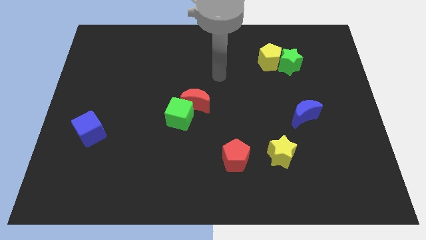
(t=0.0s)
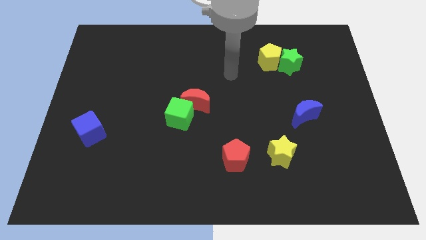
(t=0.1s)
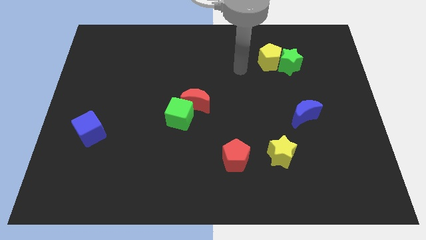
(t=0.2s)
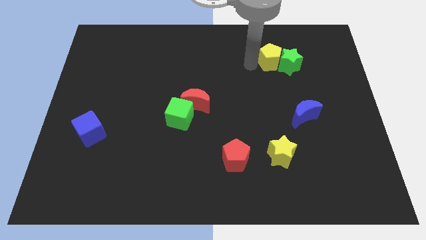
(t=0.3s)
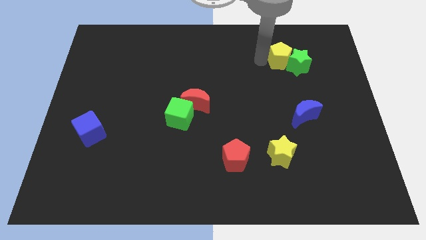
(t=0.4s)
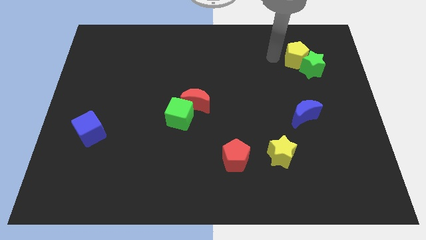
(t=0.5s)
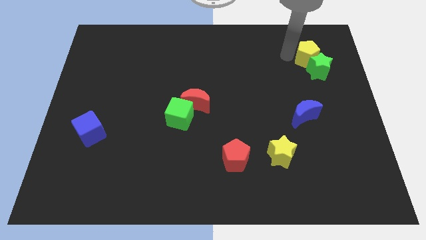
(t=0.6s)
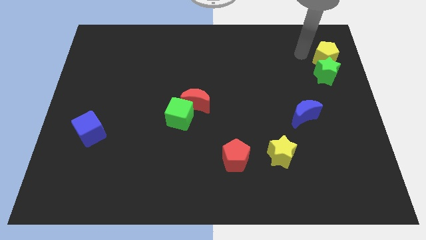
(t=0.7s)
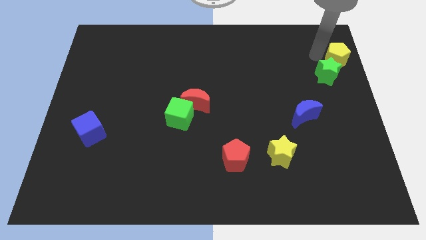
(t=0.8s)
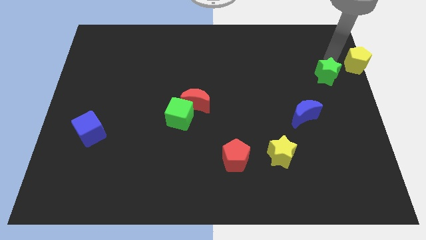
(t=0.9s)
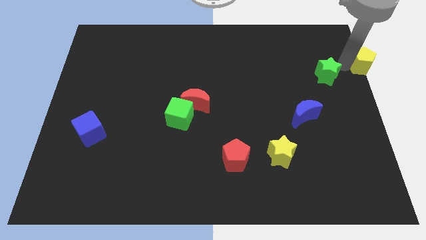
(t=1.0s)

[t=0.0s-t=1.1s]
pull the green star apart from the yellow pentagon

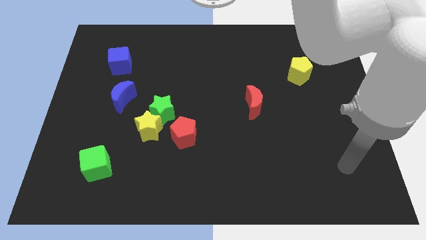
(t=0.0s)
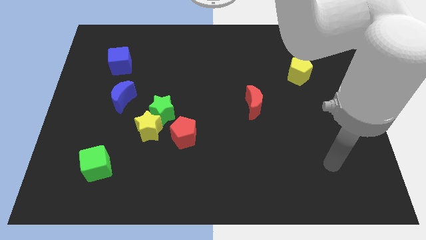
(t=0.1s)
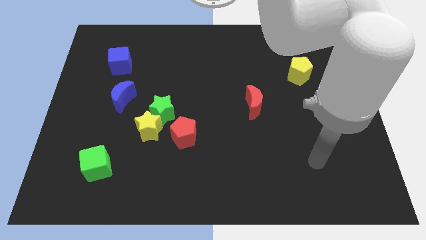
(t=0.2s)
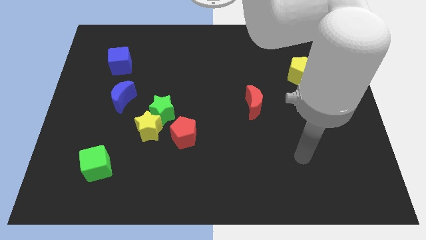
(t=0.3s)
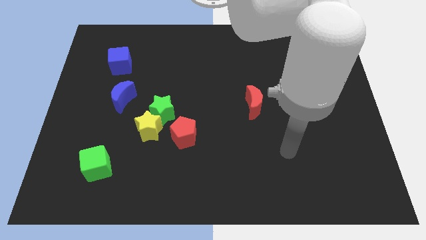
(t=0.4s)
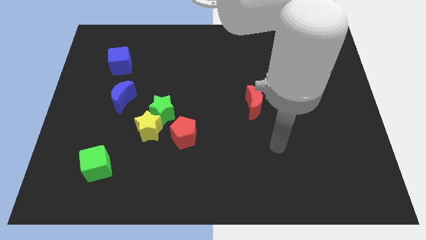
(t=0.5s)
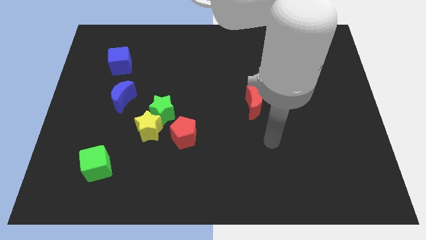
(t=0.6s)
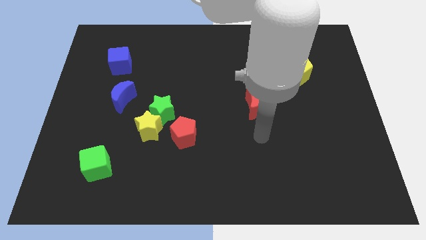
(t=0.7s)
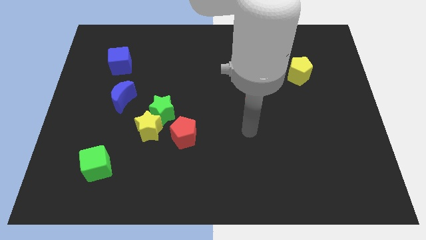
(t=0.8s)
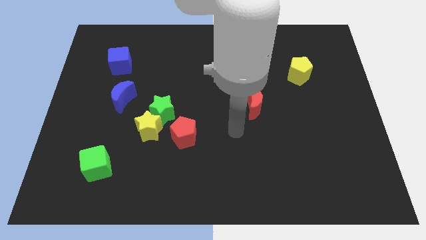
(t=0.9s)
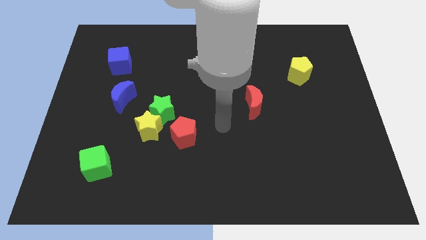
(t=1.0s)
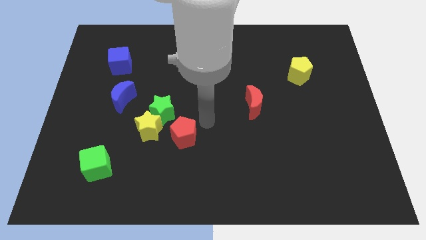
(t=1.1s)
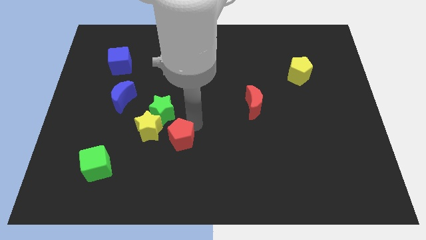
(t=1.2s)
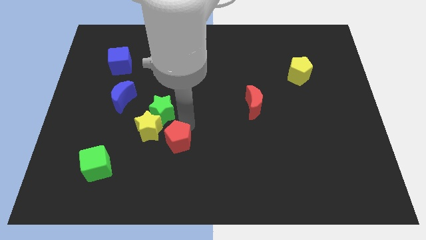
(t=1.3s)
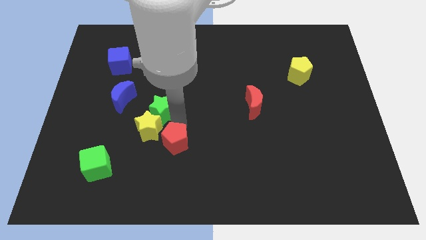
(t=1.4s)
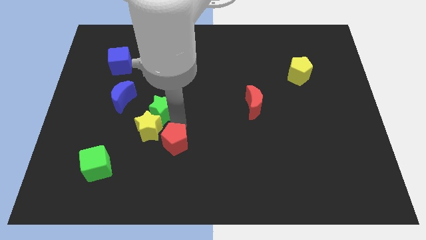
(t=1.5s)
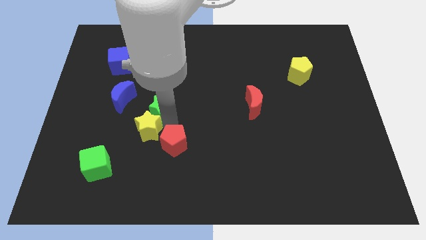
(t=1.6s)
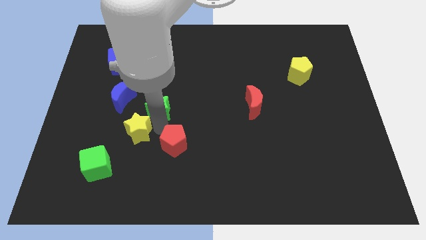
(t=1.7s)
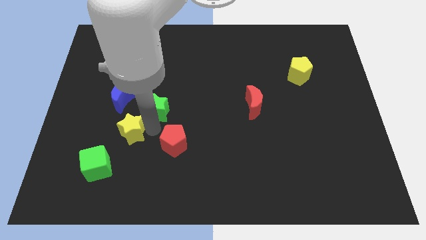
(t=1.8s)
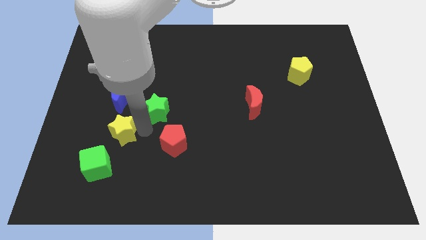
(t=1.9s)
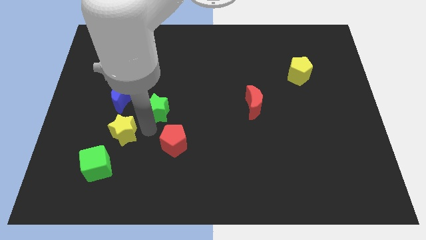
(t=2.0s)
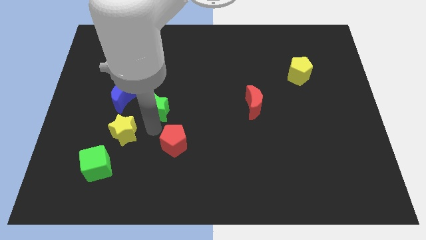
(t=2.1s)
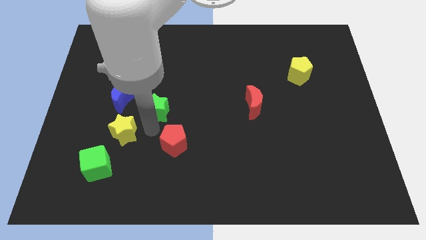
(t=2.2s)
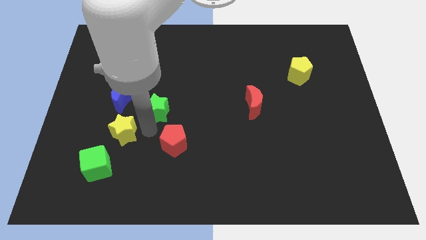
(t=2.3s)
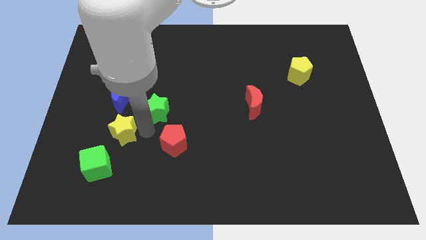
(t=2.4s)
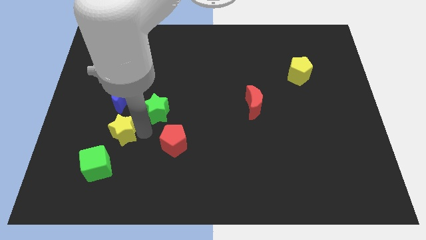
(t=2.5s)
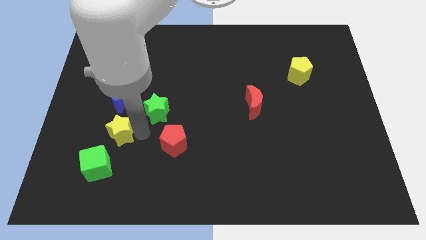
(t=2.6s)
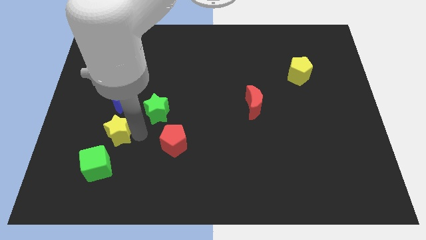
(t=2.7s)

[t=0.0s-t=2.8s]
move the yellow star away from the green star and red pentagon

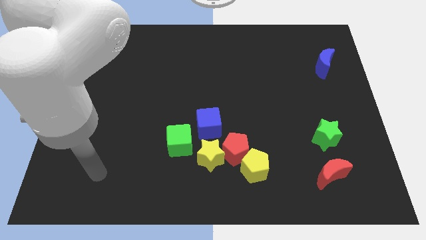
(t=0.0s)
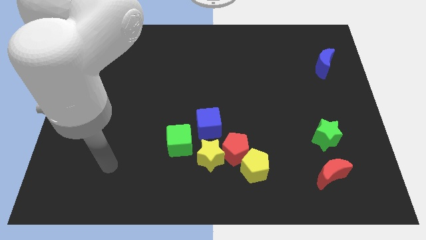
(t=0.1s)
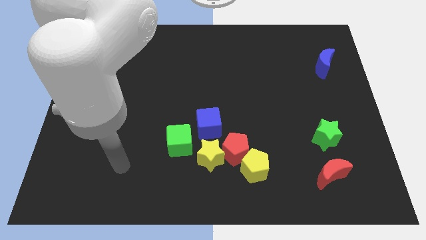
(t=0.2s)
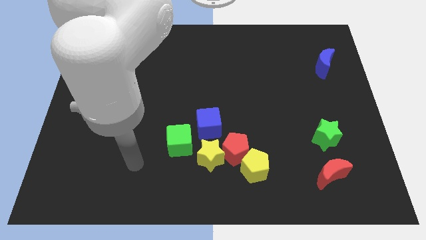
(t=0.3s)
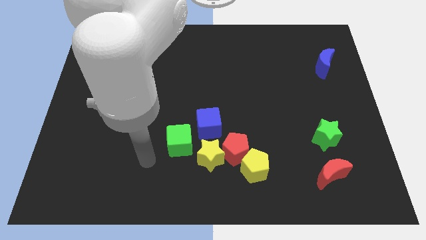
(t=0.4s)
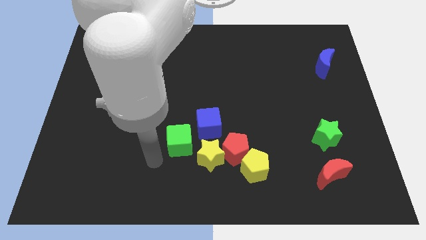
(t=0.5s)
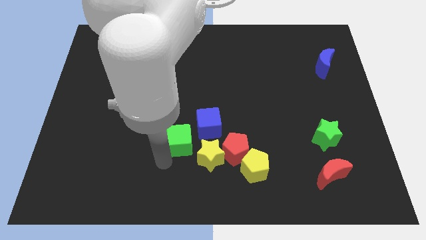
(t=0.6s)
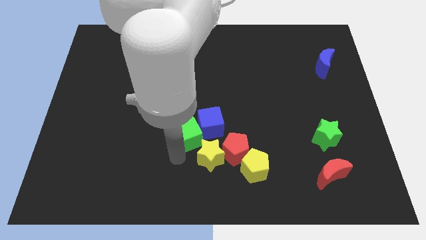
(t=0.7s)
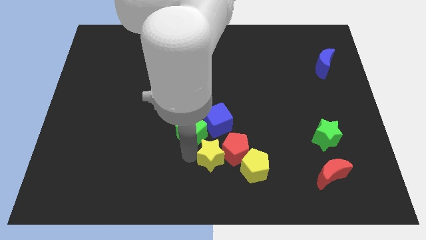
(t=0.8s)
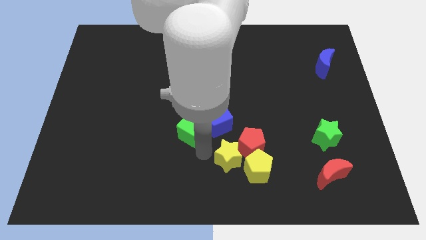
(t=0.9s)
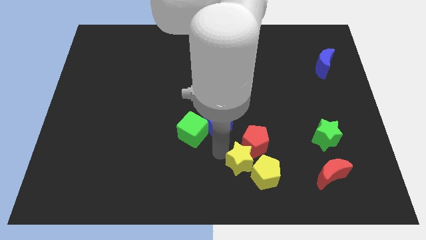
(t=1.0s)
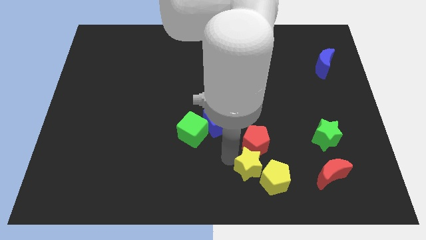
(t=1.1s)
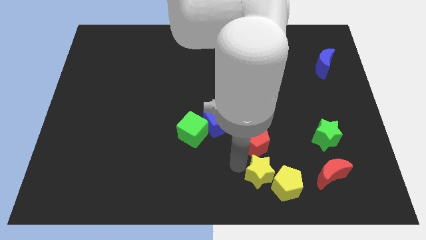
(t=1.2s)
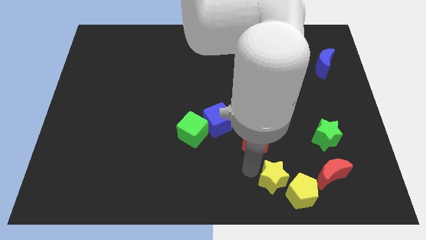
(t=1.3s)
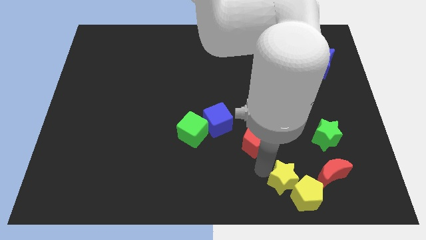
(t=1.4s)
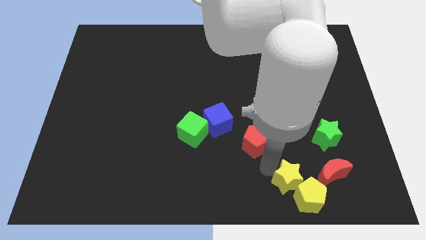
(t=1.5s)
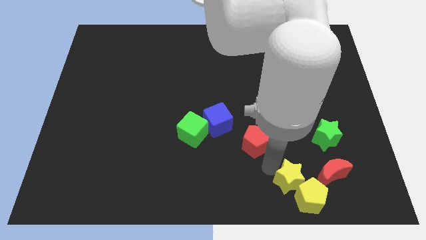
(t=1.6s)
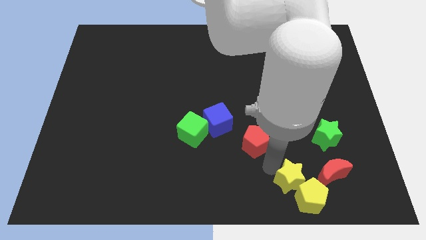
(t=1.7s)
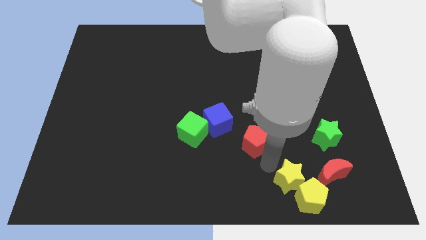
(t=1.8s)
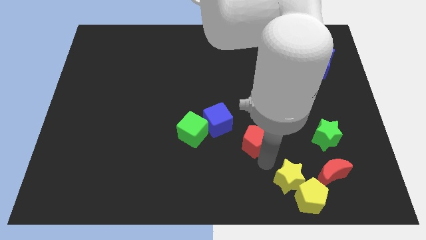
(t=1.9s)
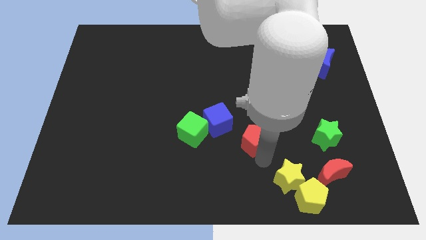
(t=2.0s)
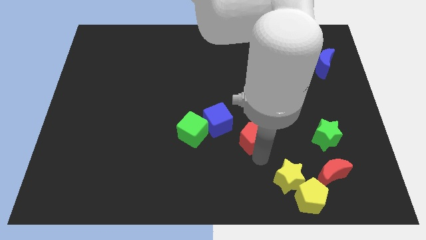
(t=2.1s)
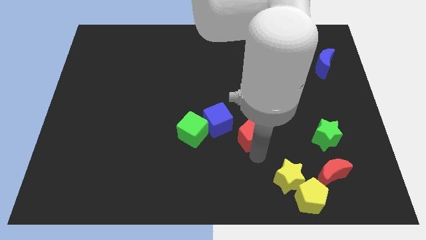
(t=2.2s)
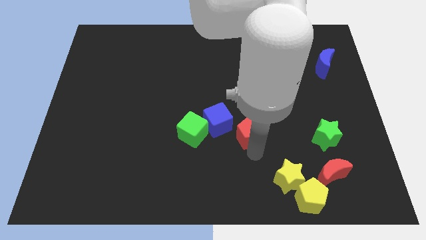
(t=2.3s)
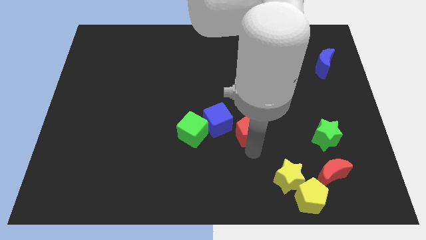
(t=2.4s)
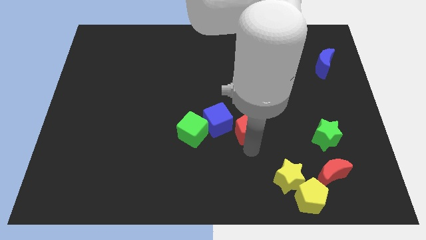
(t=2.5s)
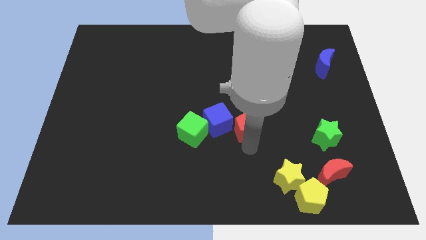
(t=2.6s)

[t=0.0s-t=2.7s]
separate the red pentagon from the yellow star, yellow pentagon, and blue cube

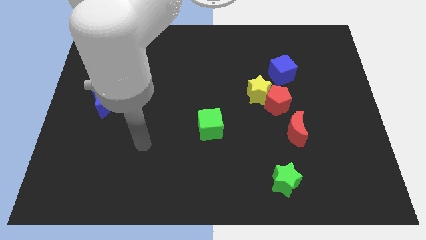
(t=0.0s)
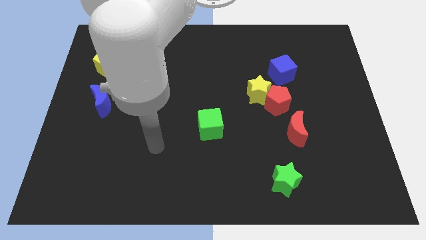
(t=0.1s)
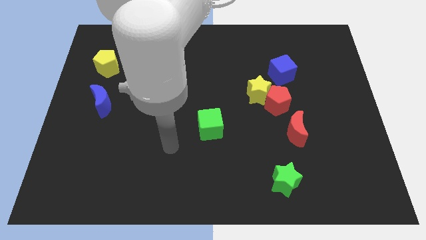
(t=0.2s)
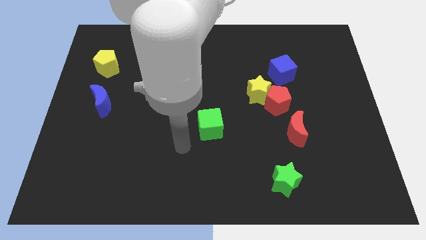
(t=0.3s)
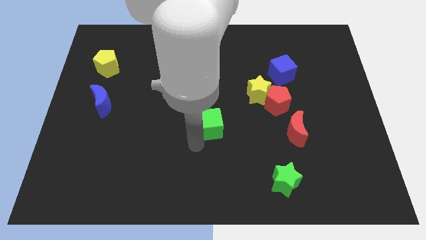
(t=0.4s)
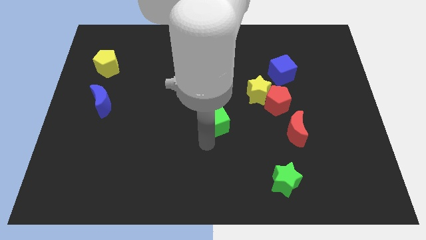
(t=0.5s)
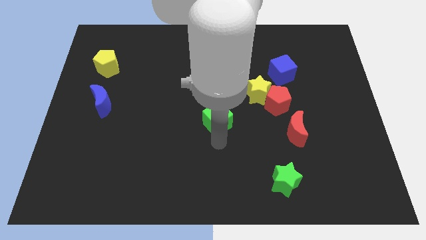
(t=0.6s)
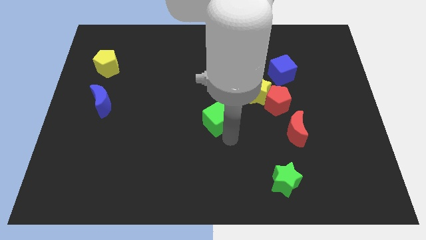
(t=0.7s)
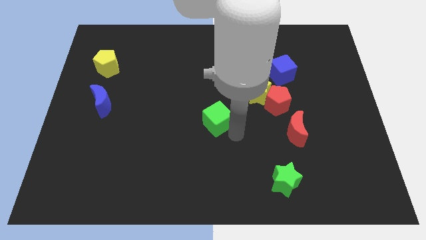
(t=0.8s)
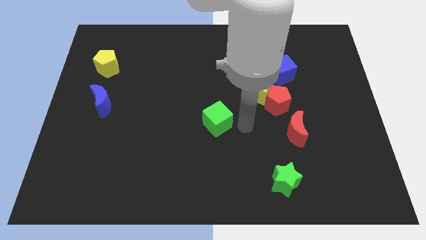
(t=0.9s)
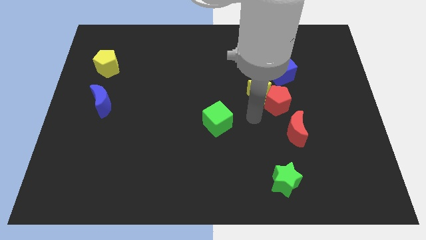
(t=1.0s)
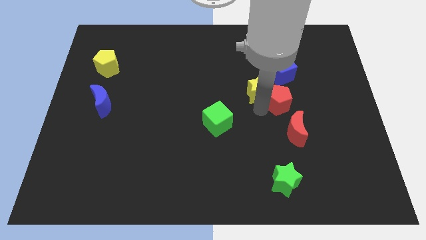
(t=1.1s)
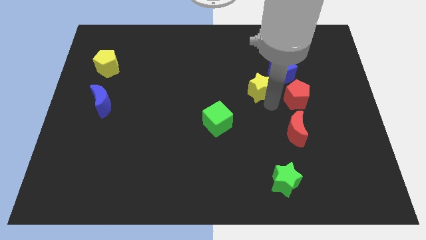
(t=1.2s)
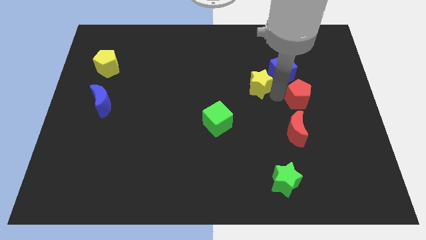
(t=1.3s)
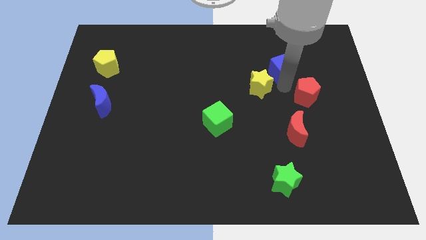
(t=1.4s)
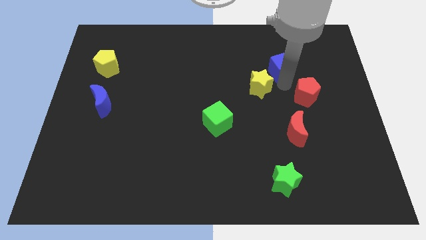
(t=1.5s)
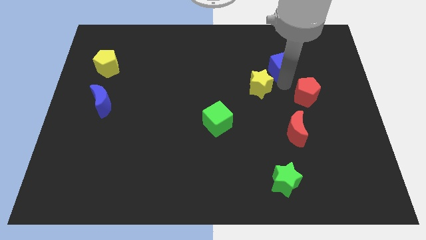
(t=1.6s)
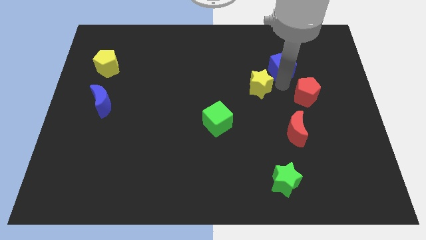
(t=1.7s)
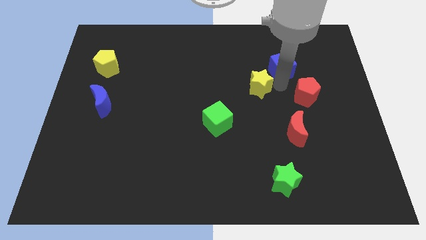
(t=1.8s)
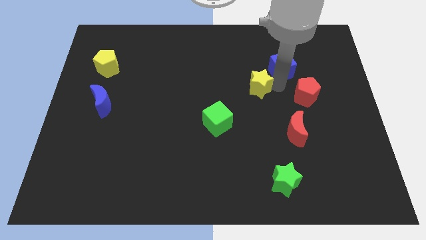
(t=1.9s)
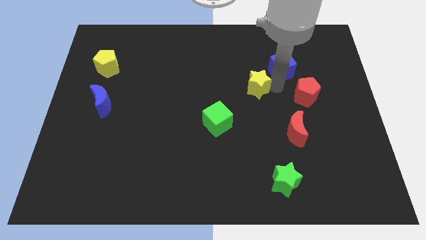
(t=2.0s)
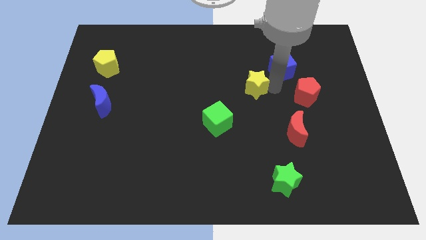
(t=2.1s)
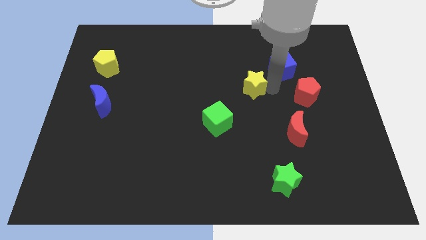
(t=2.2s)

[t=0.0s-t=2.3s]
move the yellow star away from the red pentagon and blue cube

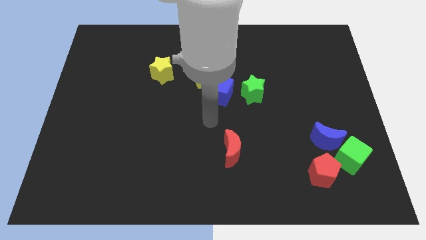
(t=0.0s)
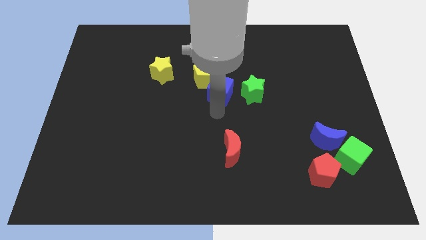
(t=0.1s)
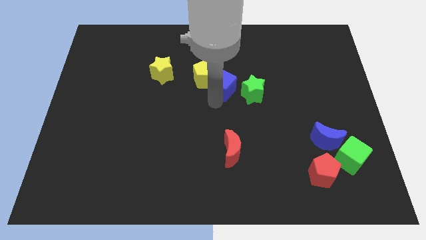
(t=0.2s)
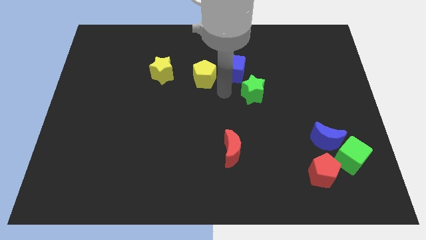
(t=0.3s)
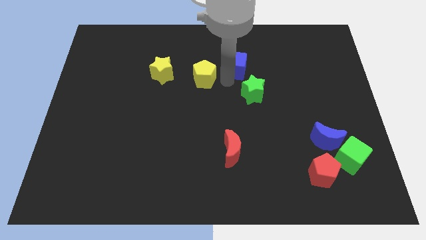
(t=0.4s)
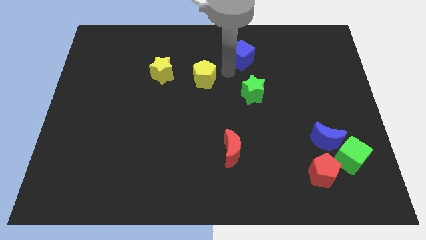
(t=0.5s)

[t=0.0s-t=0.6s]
move the yellow pentagon away from the blue cube
